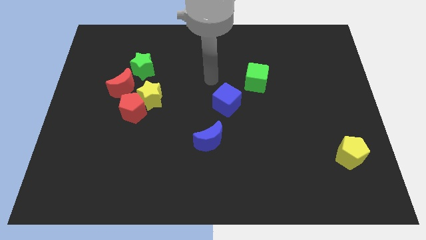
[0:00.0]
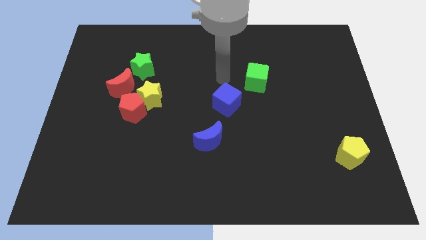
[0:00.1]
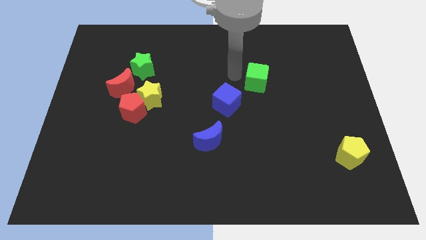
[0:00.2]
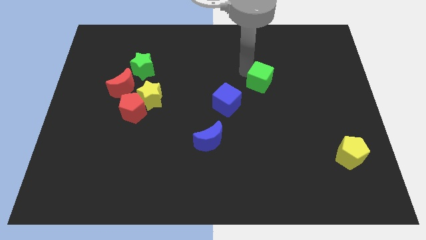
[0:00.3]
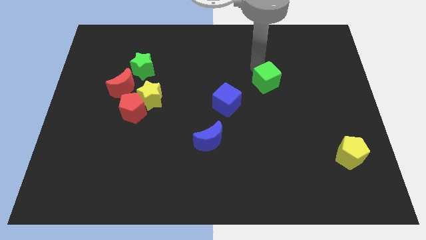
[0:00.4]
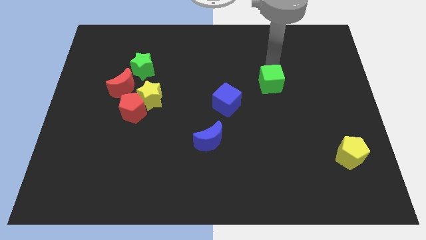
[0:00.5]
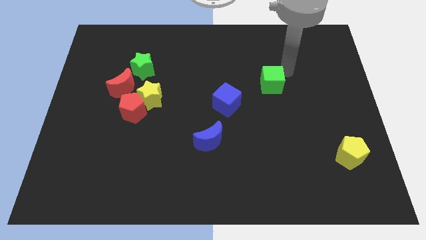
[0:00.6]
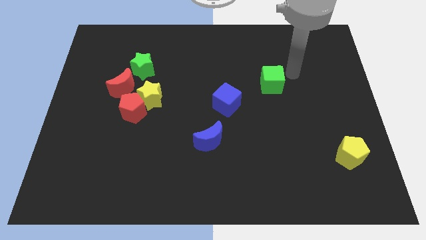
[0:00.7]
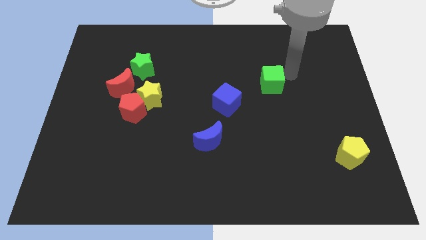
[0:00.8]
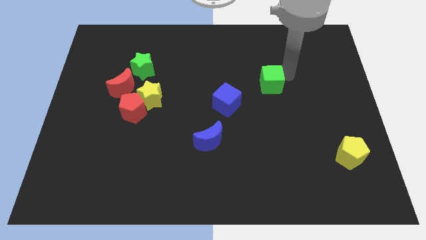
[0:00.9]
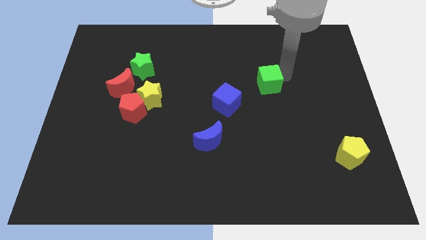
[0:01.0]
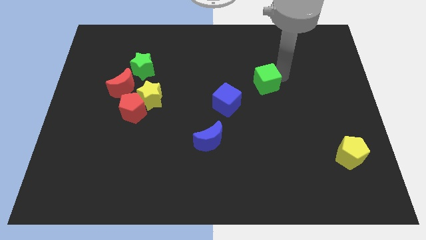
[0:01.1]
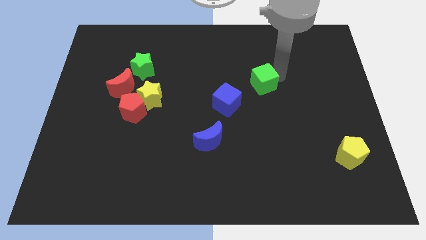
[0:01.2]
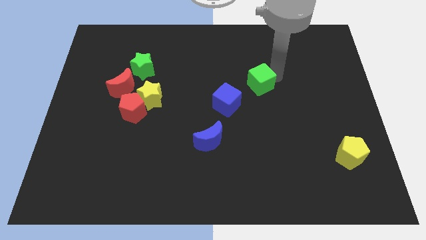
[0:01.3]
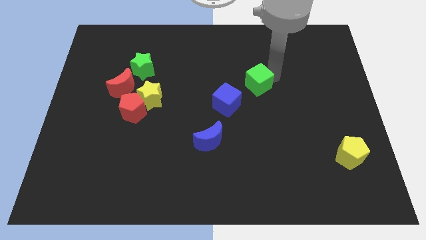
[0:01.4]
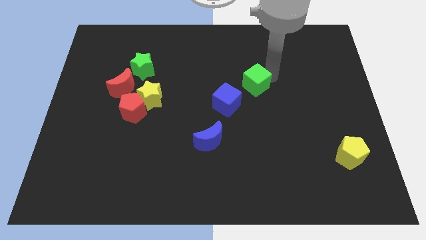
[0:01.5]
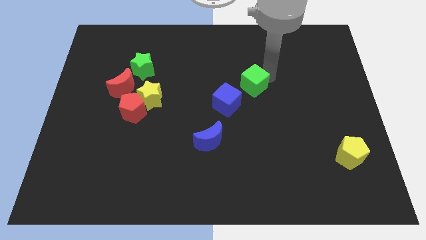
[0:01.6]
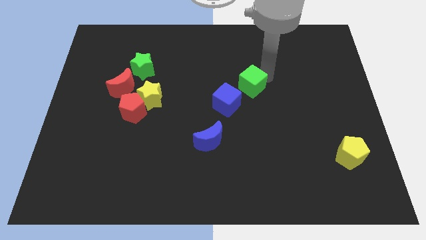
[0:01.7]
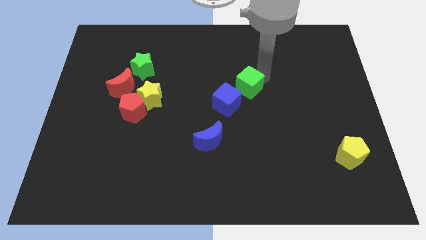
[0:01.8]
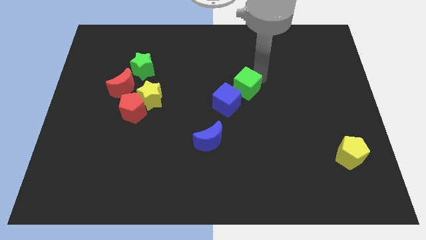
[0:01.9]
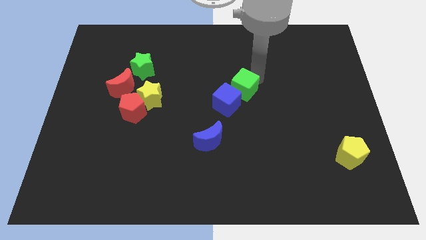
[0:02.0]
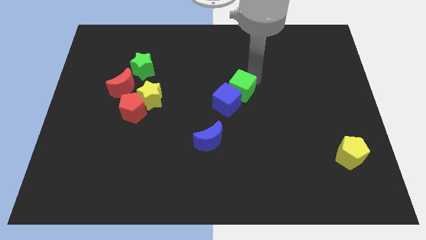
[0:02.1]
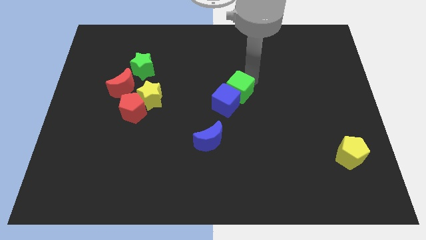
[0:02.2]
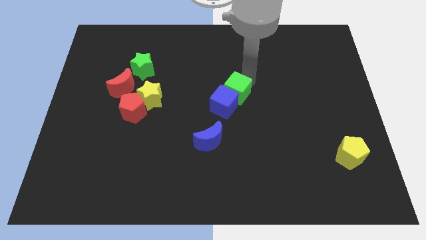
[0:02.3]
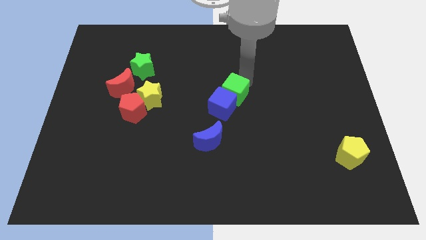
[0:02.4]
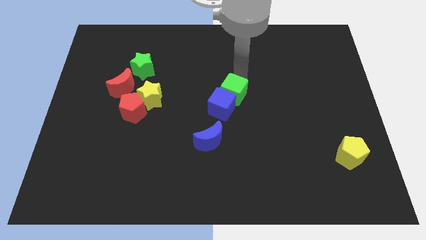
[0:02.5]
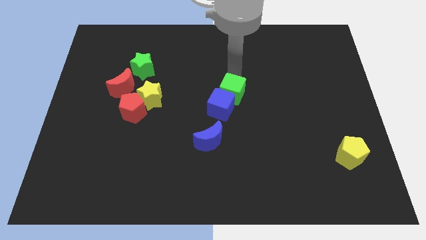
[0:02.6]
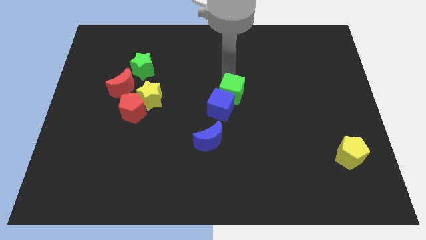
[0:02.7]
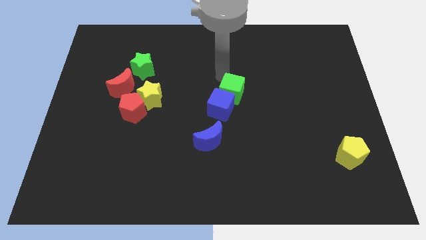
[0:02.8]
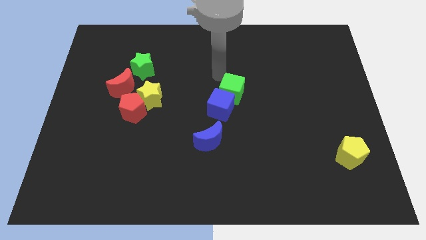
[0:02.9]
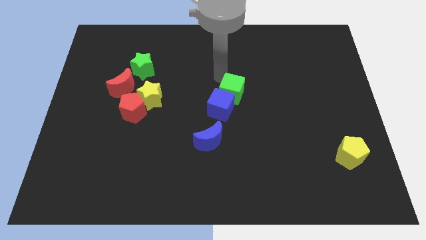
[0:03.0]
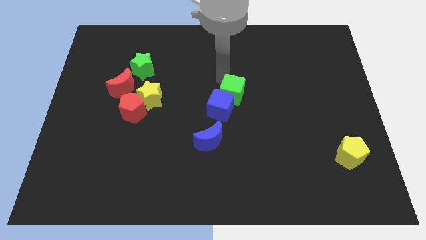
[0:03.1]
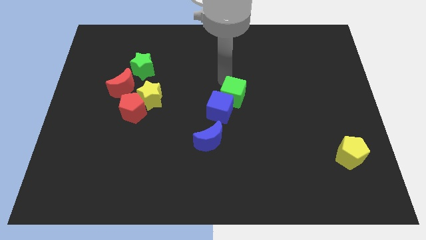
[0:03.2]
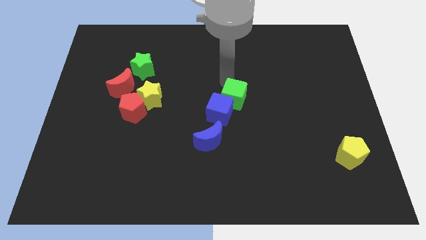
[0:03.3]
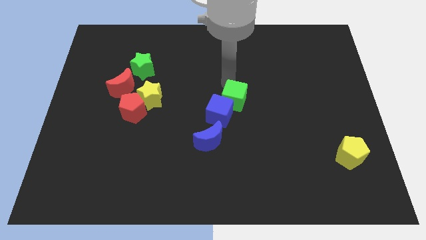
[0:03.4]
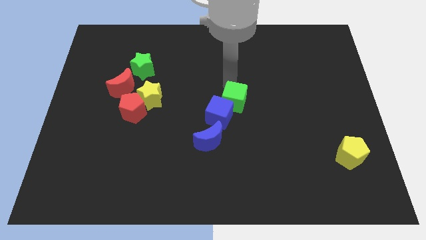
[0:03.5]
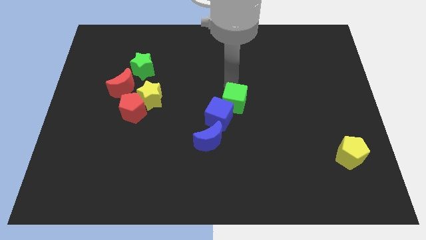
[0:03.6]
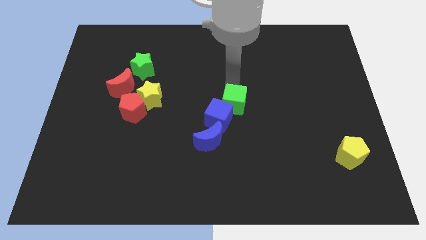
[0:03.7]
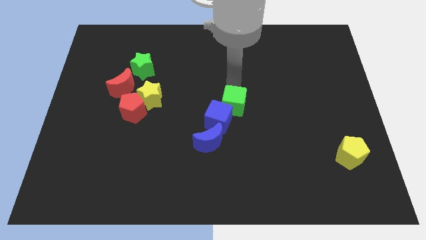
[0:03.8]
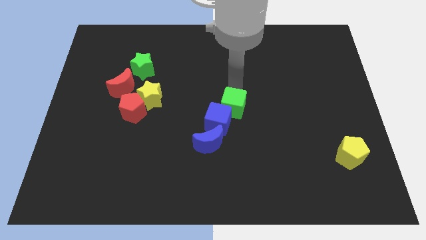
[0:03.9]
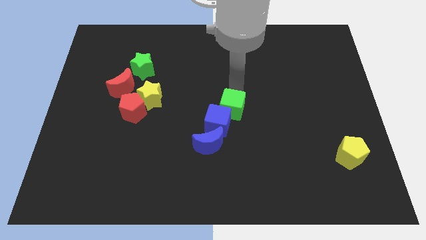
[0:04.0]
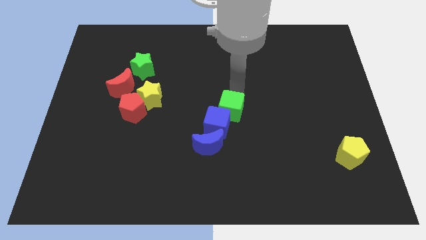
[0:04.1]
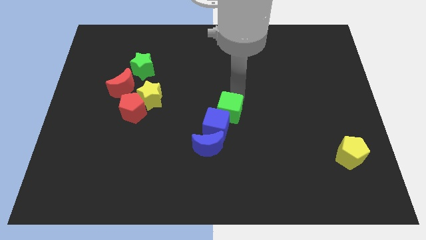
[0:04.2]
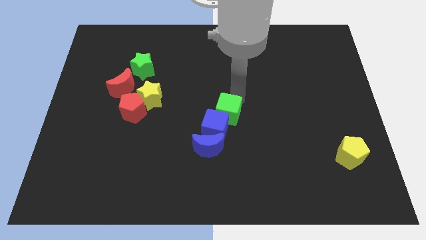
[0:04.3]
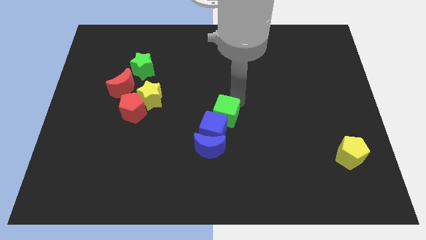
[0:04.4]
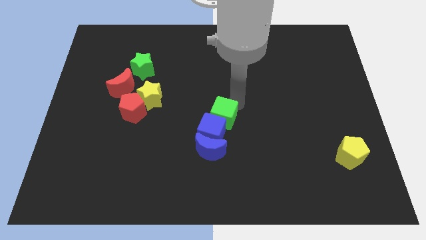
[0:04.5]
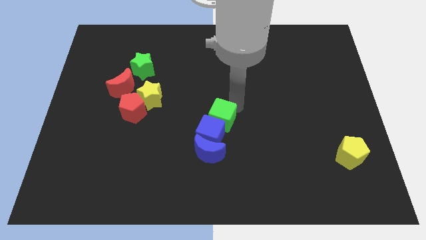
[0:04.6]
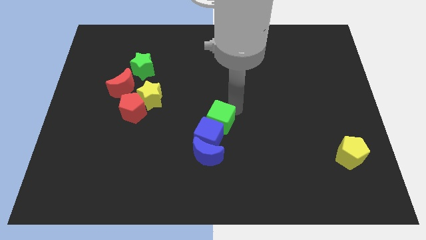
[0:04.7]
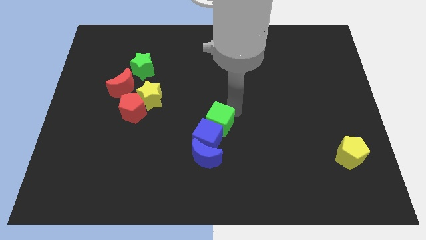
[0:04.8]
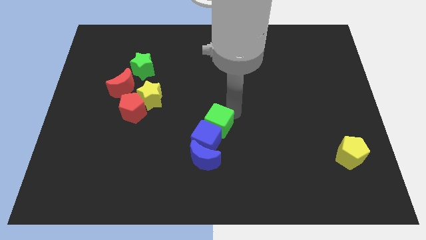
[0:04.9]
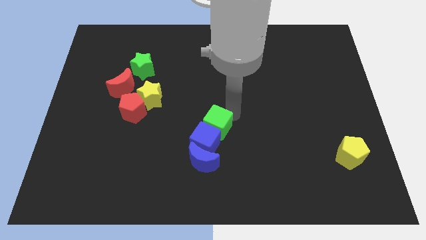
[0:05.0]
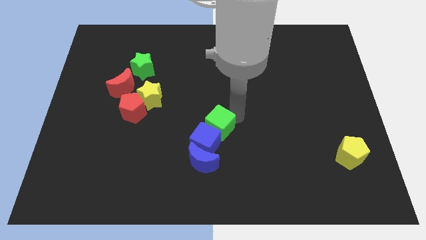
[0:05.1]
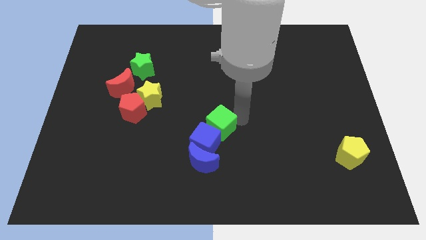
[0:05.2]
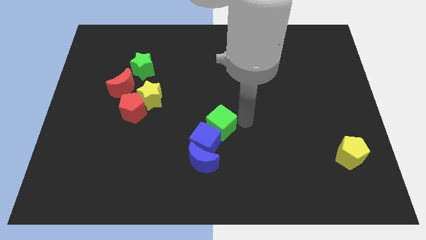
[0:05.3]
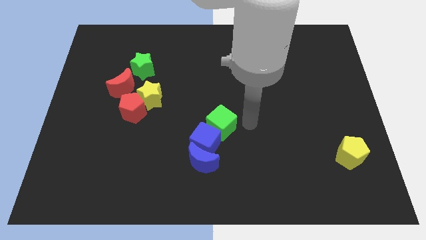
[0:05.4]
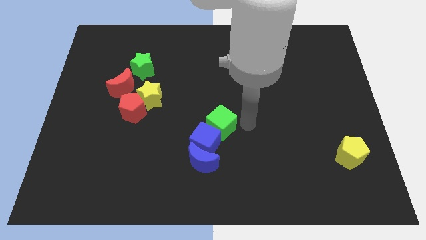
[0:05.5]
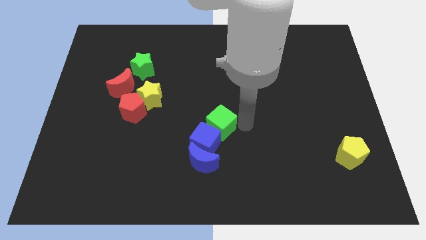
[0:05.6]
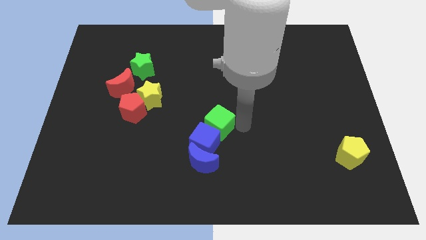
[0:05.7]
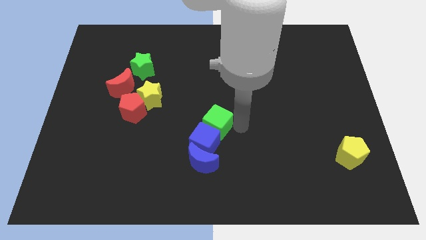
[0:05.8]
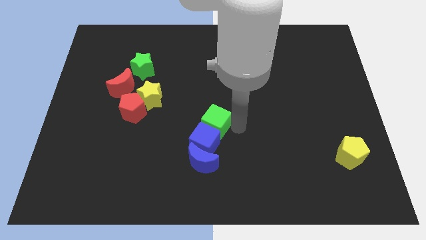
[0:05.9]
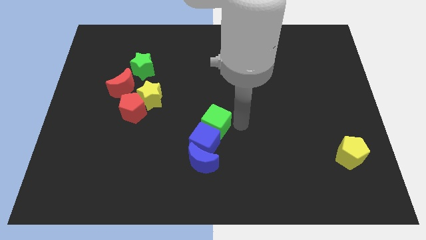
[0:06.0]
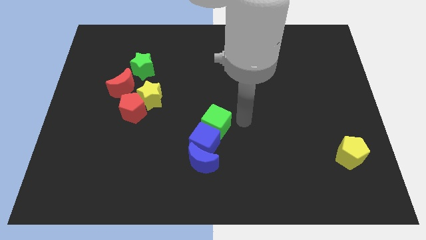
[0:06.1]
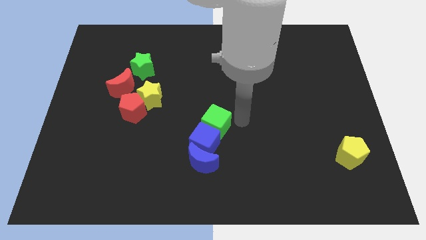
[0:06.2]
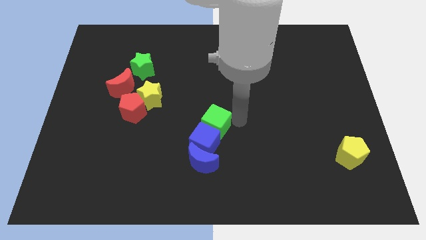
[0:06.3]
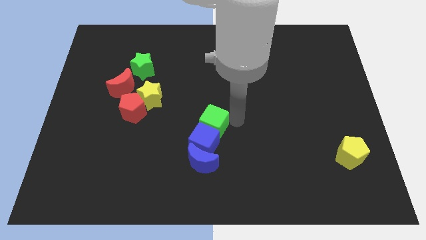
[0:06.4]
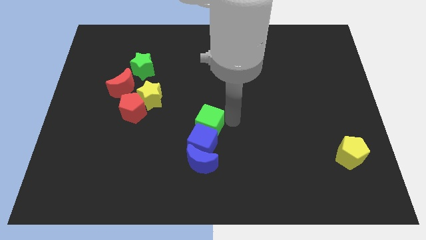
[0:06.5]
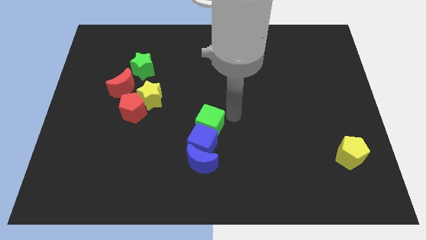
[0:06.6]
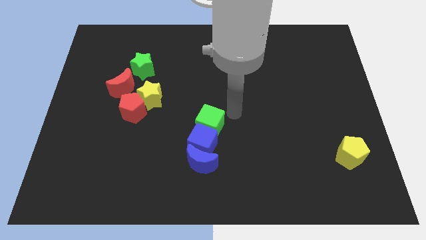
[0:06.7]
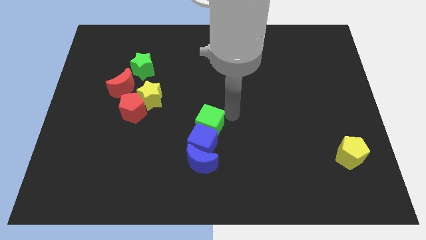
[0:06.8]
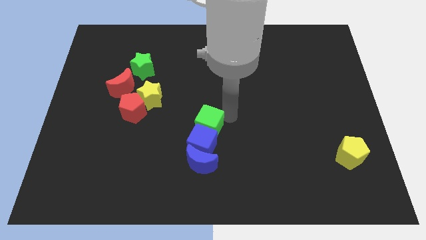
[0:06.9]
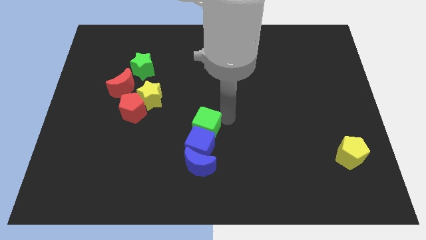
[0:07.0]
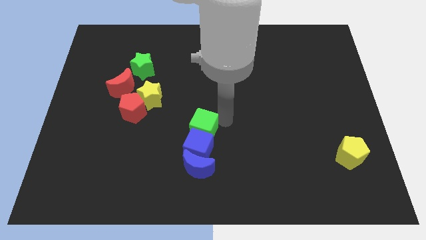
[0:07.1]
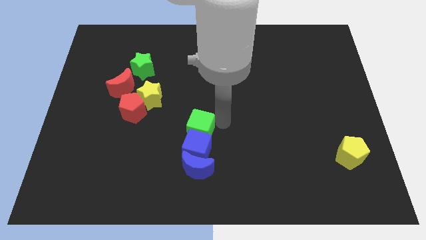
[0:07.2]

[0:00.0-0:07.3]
push the green cube diagonally down and to the left

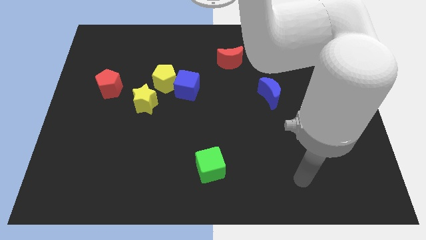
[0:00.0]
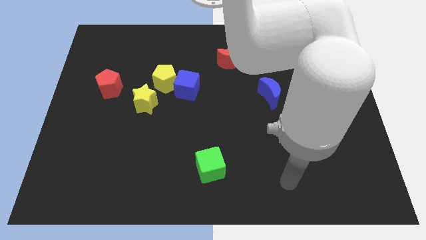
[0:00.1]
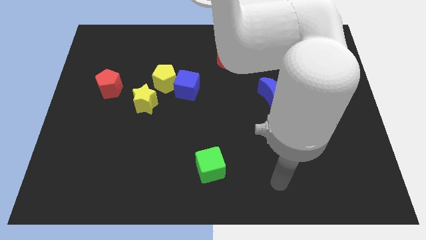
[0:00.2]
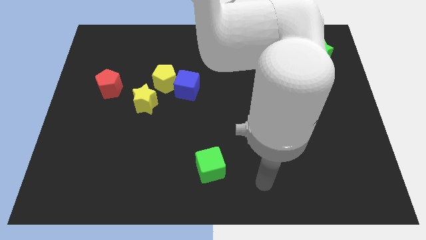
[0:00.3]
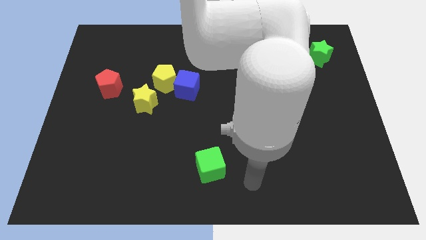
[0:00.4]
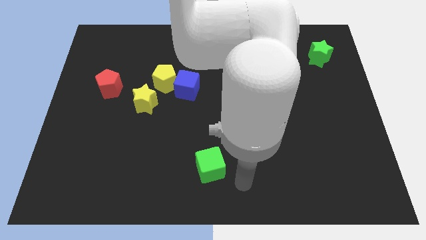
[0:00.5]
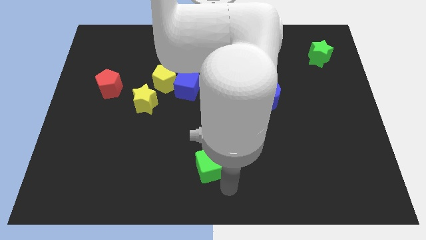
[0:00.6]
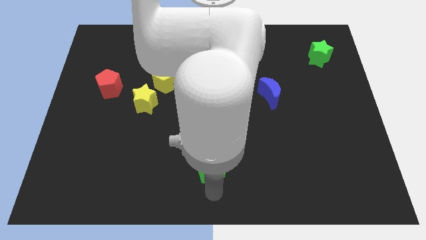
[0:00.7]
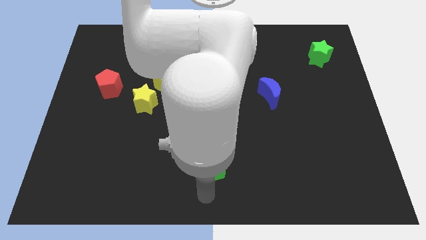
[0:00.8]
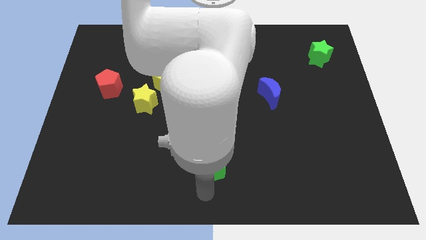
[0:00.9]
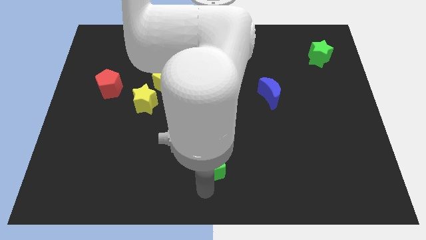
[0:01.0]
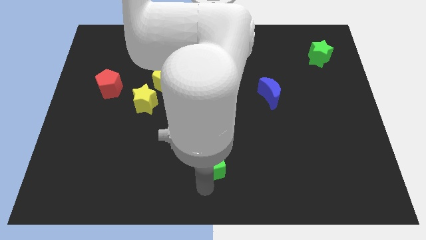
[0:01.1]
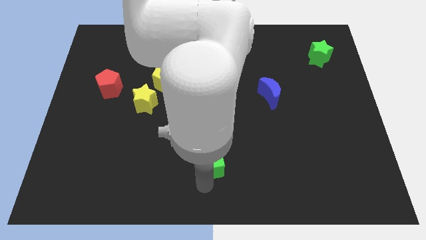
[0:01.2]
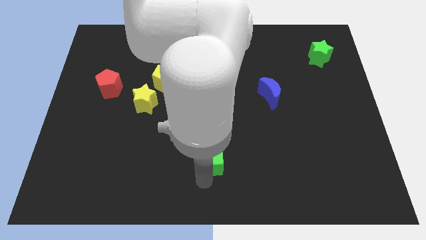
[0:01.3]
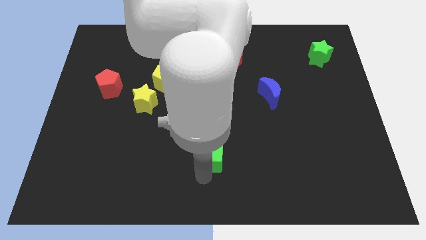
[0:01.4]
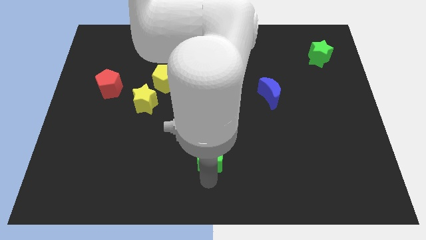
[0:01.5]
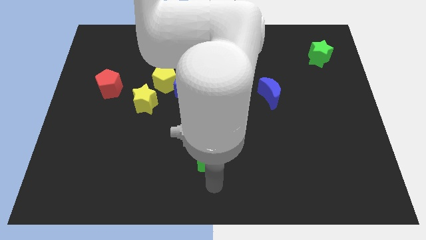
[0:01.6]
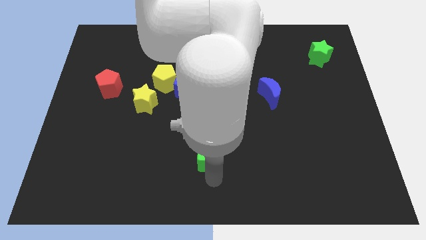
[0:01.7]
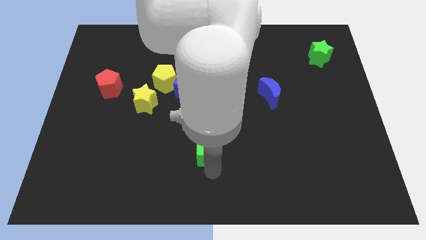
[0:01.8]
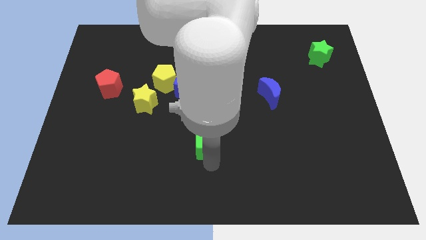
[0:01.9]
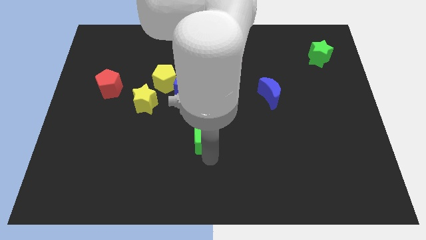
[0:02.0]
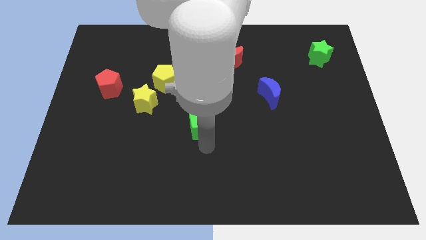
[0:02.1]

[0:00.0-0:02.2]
move the green cube up a little
